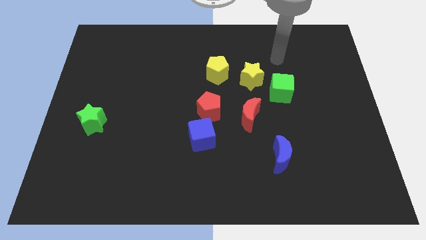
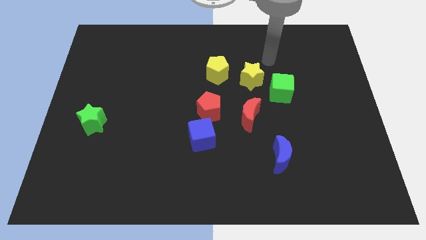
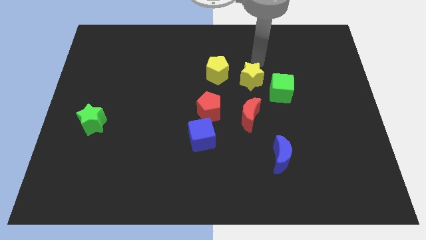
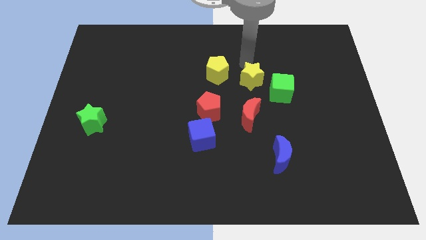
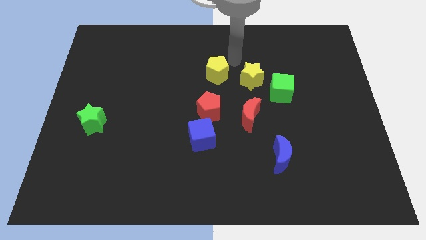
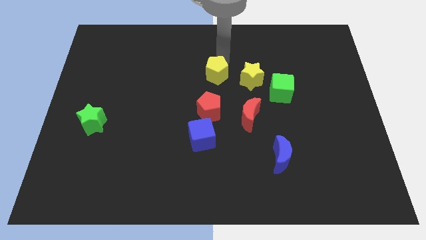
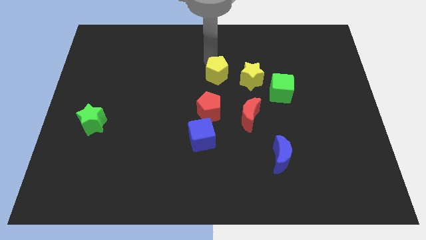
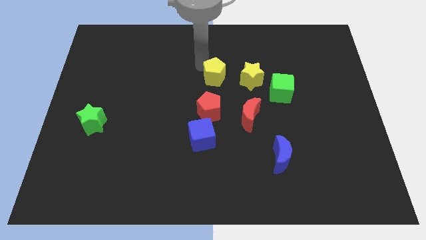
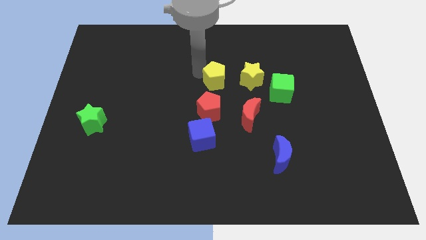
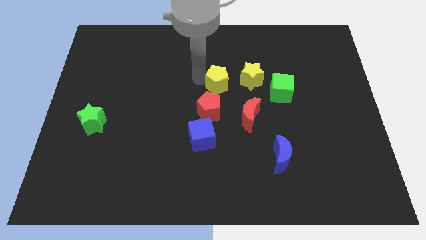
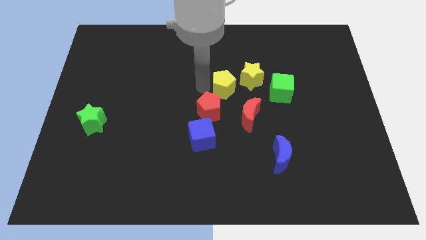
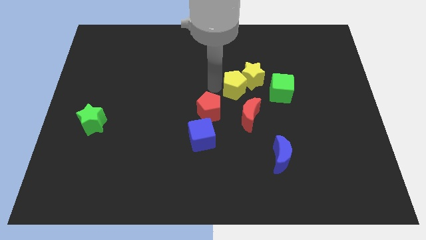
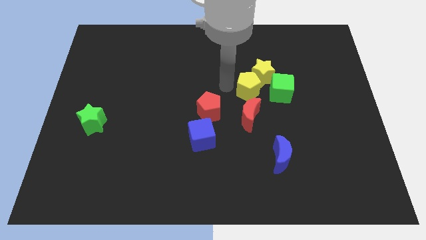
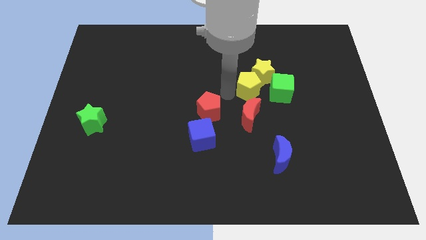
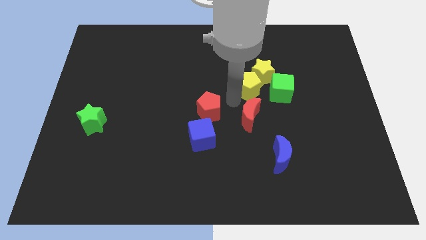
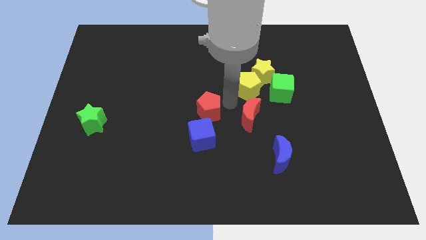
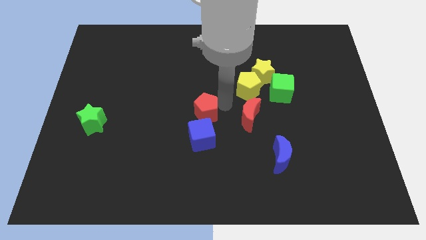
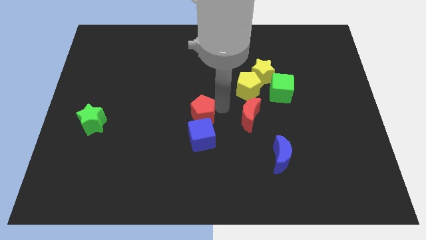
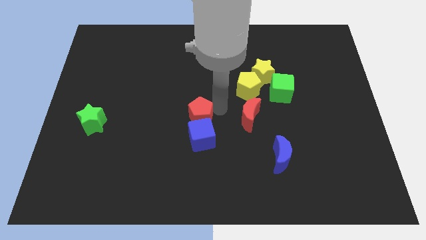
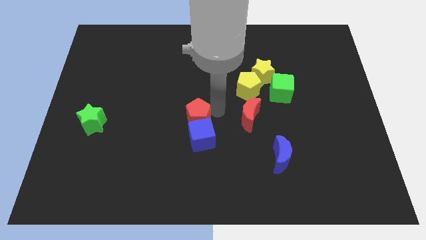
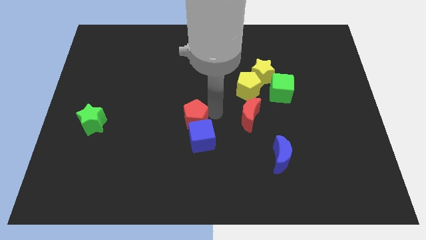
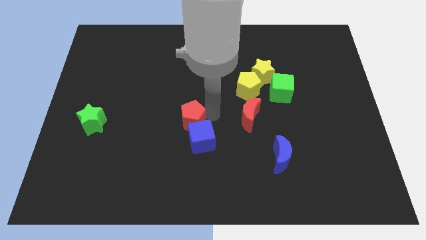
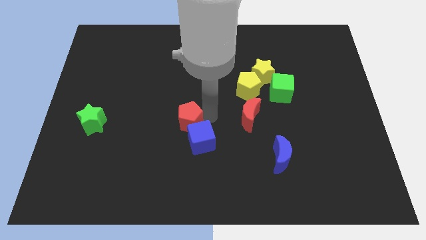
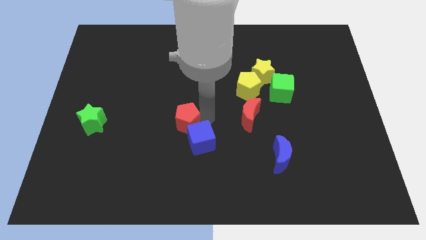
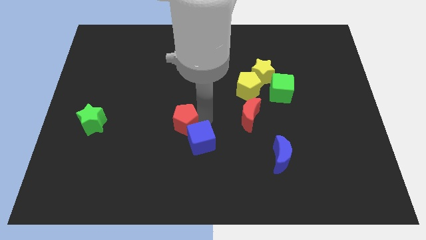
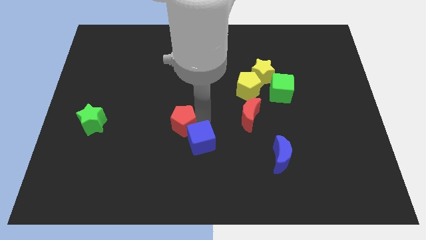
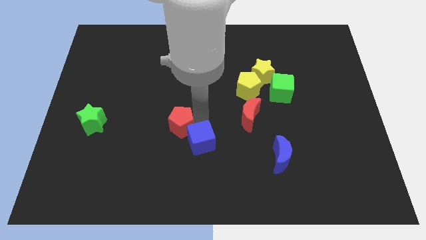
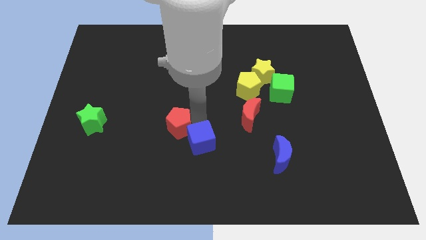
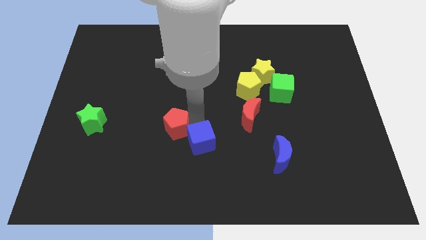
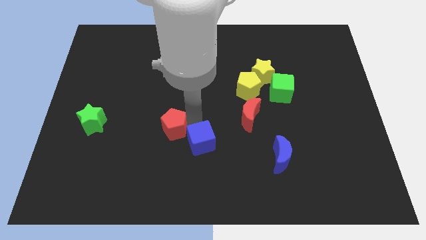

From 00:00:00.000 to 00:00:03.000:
slightly slide the red pentagon left

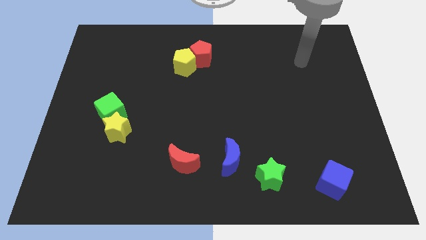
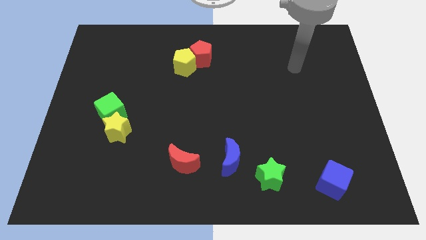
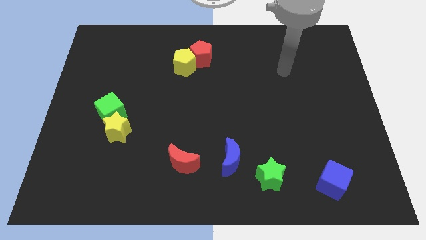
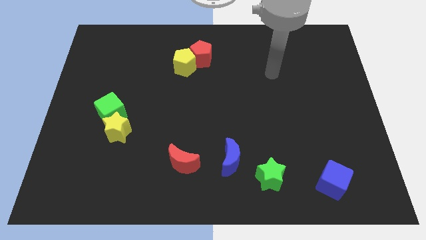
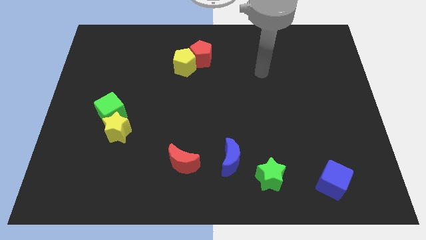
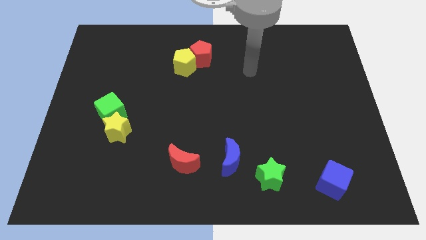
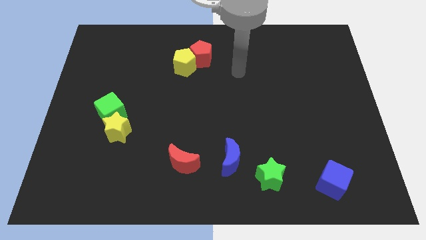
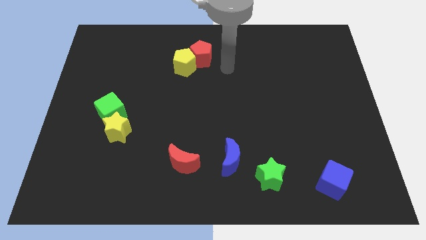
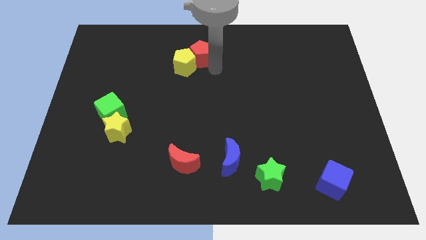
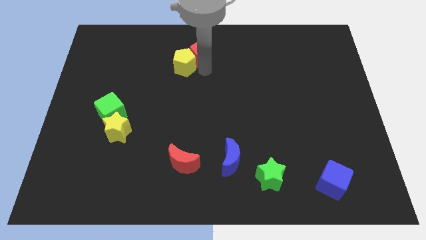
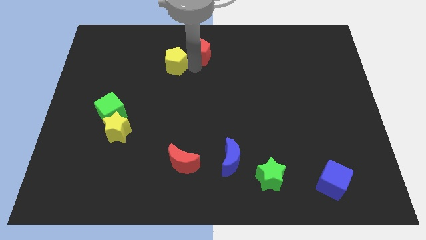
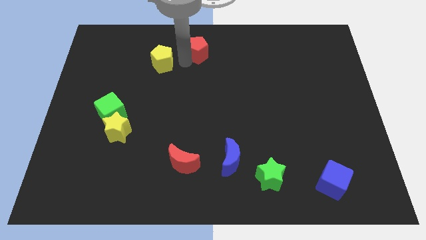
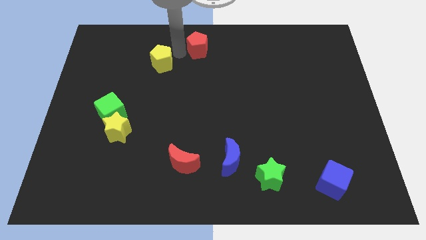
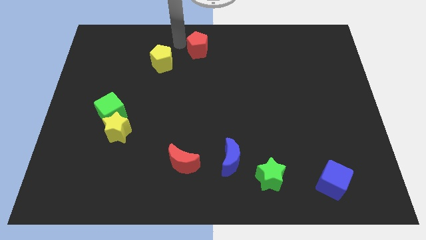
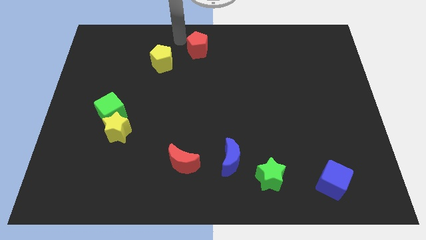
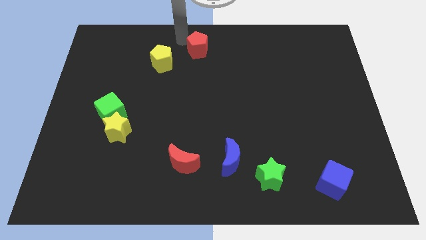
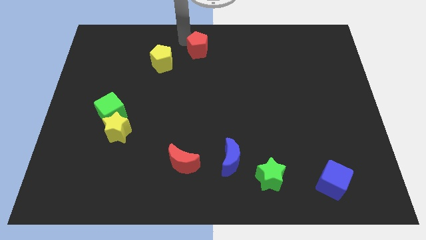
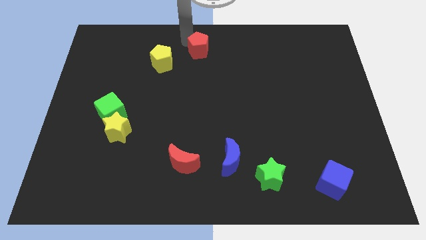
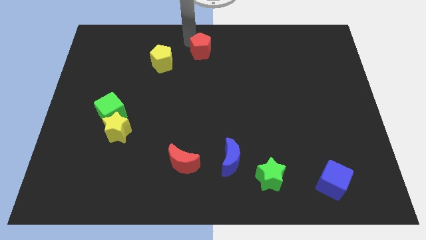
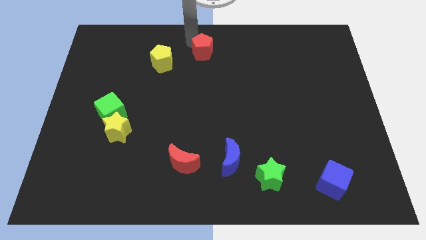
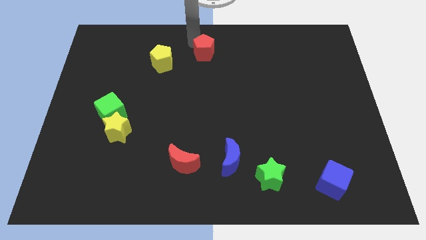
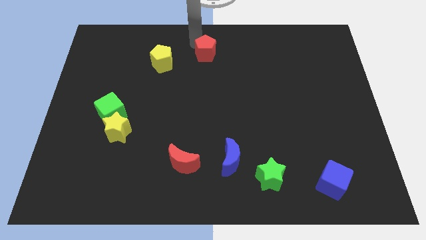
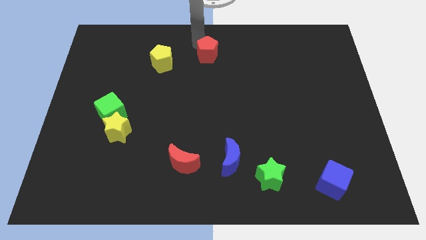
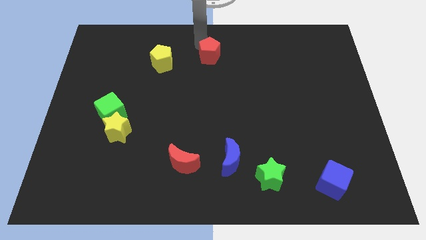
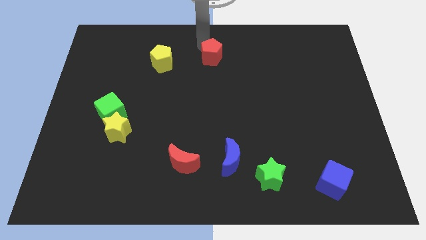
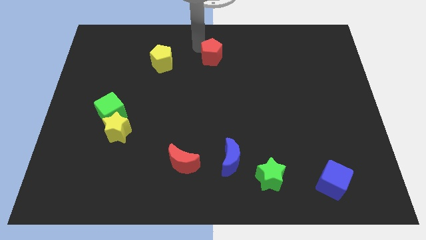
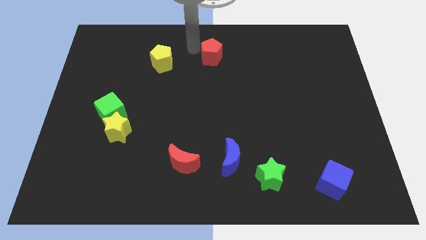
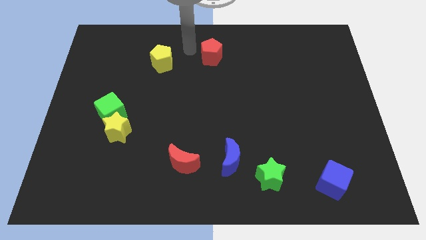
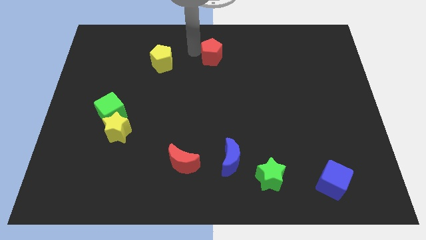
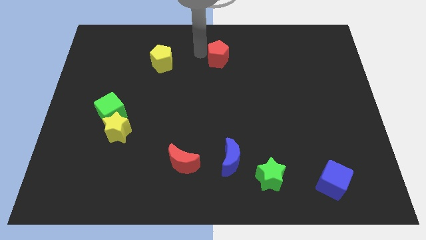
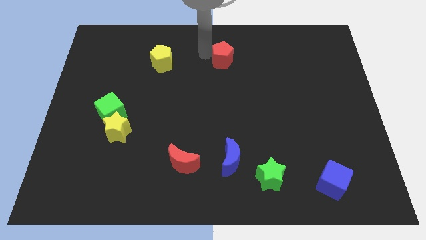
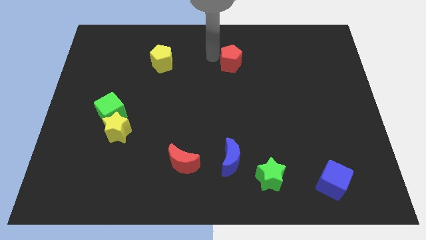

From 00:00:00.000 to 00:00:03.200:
slightly slide the red pentagon to the right

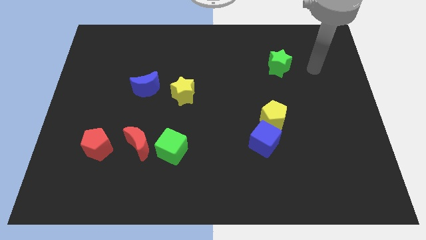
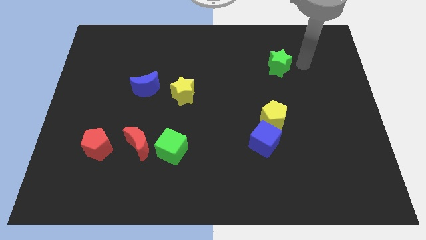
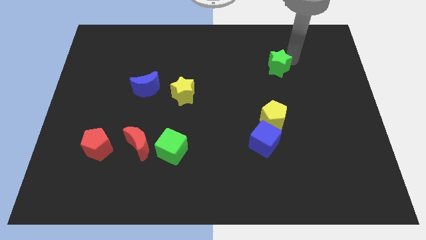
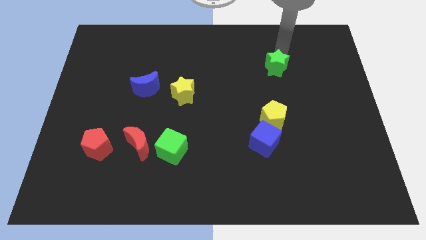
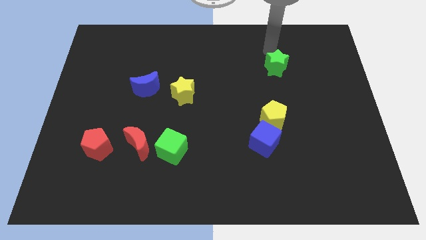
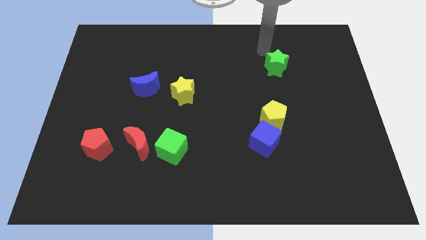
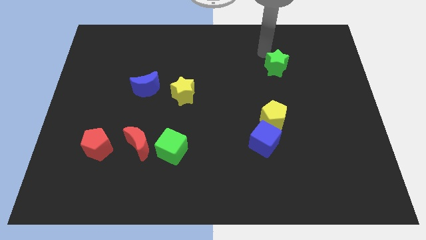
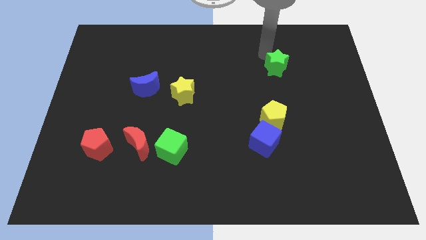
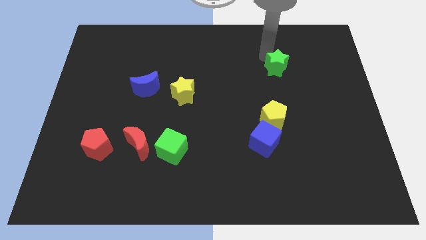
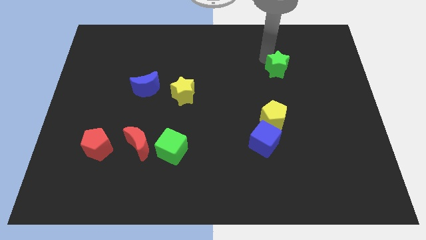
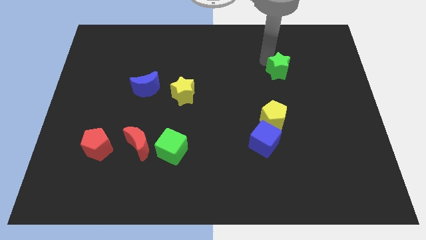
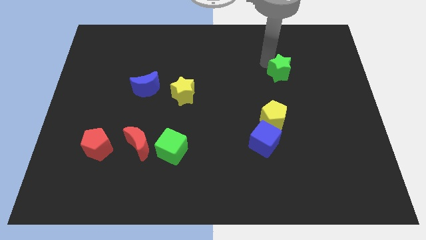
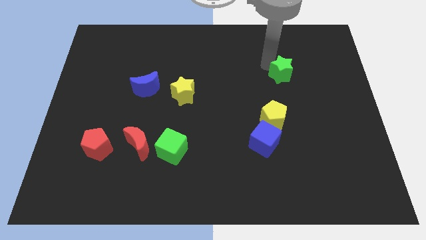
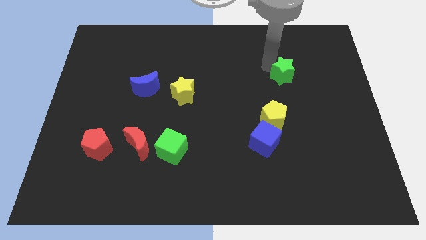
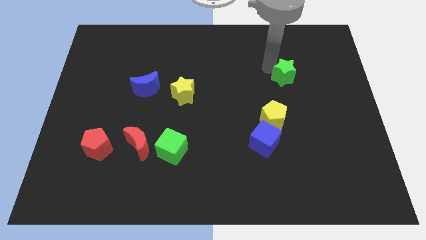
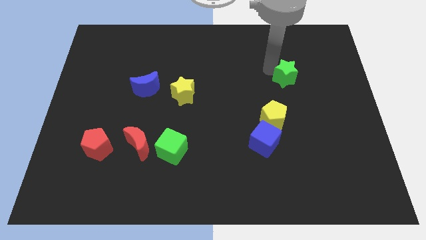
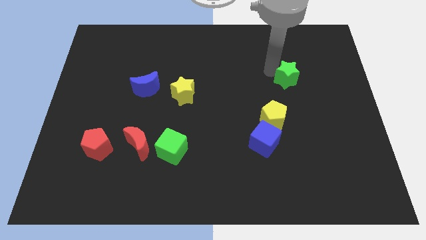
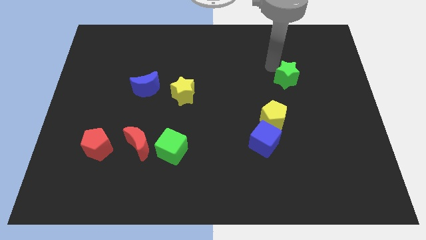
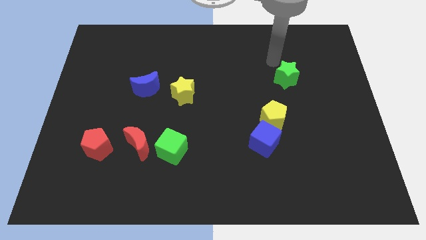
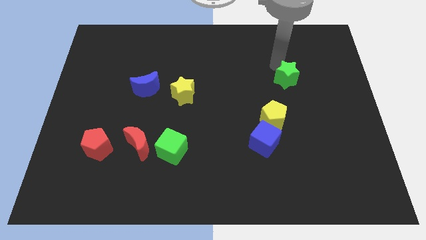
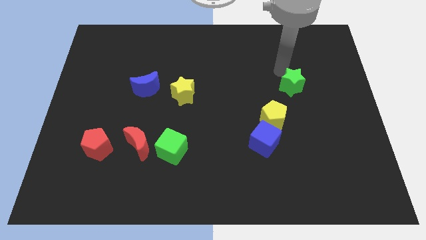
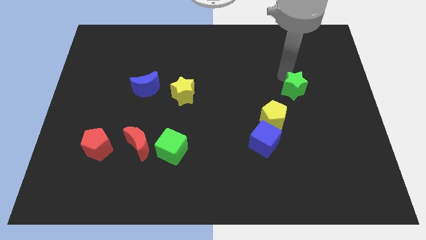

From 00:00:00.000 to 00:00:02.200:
slightly slide the green star downwards
